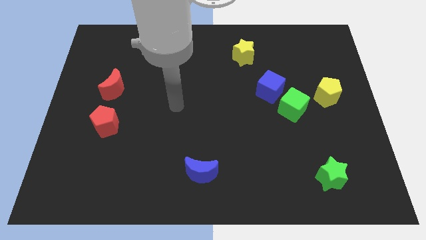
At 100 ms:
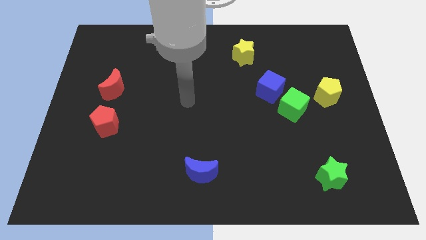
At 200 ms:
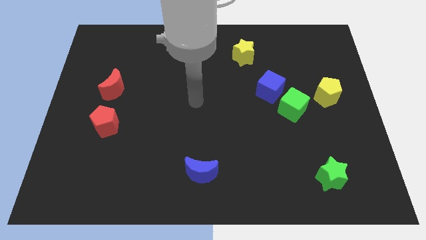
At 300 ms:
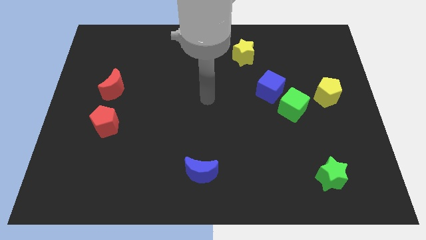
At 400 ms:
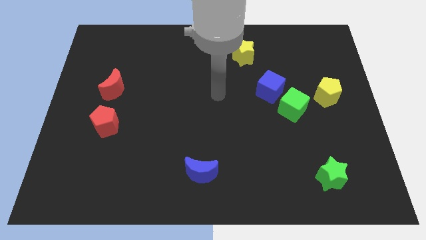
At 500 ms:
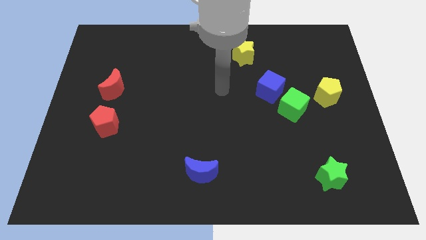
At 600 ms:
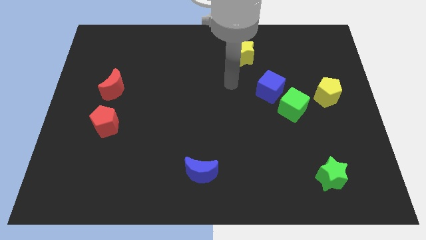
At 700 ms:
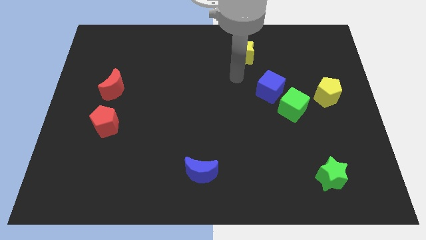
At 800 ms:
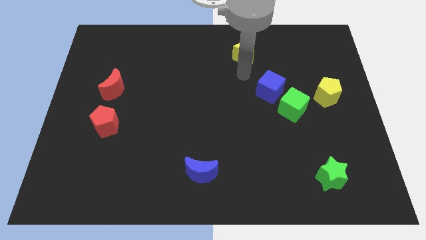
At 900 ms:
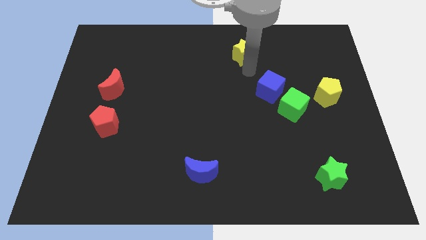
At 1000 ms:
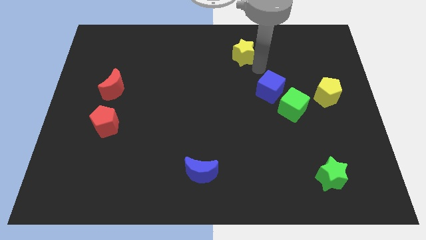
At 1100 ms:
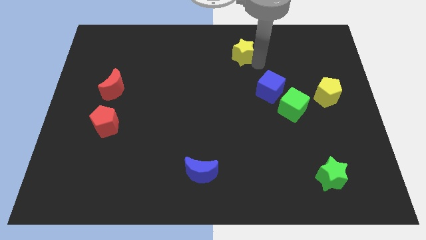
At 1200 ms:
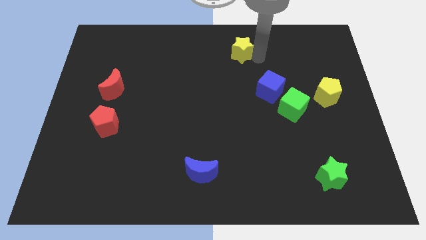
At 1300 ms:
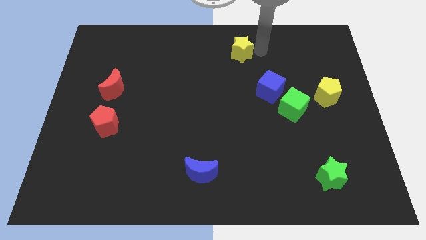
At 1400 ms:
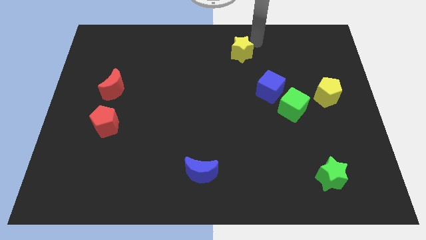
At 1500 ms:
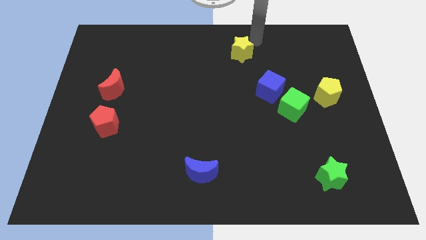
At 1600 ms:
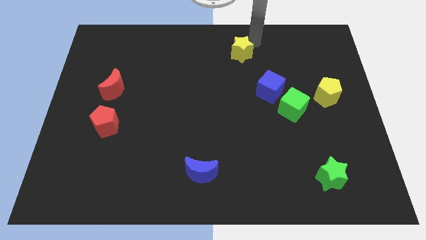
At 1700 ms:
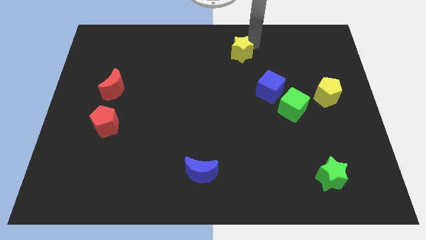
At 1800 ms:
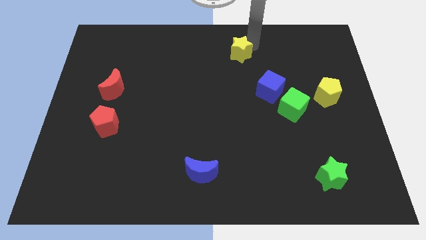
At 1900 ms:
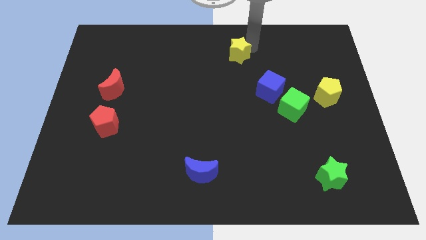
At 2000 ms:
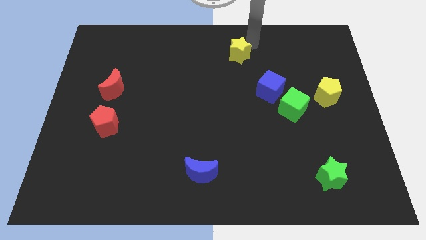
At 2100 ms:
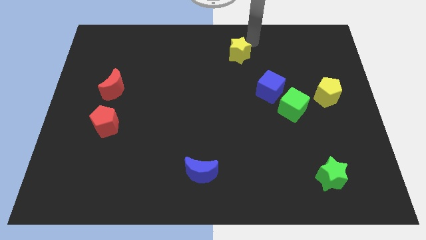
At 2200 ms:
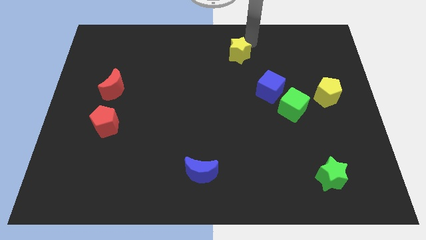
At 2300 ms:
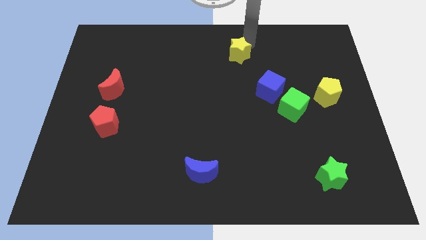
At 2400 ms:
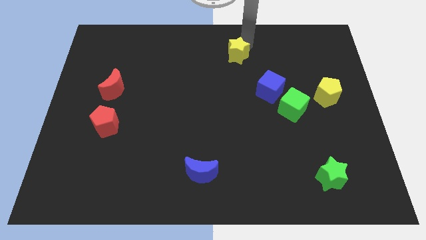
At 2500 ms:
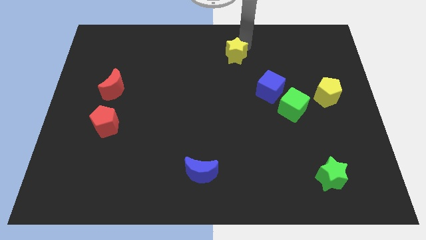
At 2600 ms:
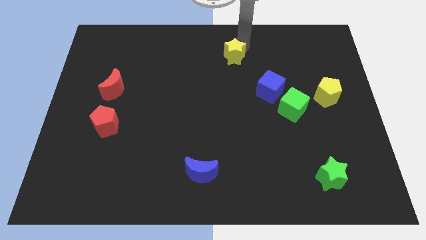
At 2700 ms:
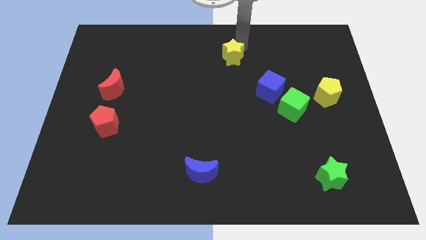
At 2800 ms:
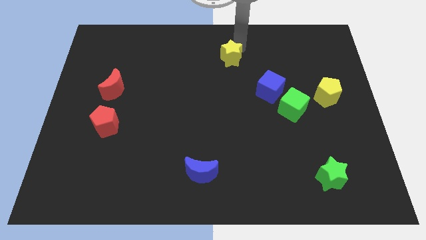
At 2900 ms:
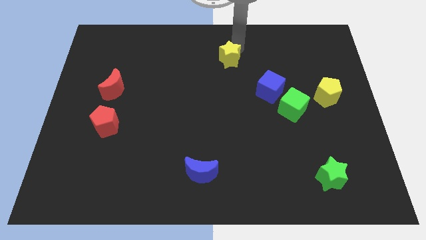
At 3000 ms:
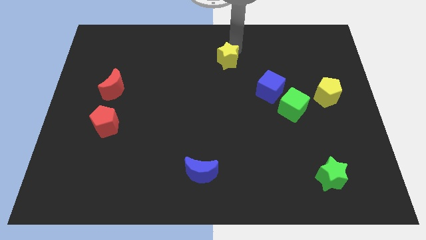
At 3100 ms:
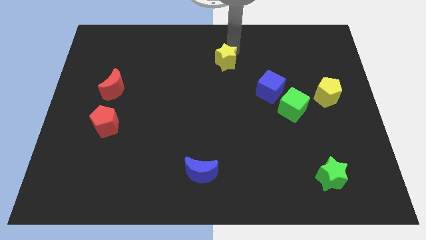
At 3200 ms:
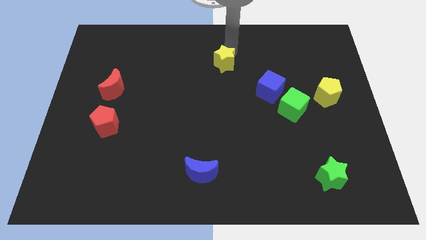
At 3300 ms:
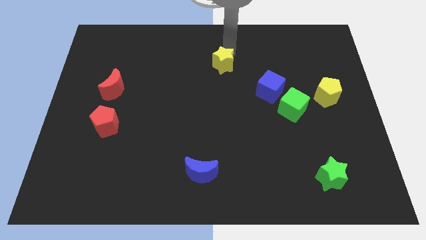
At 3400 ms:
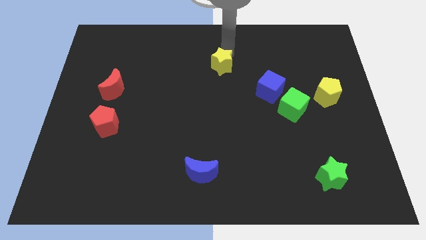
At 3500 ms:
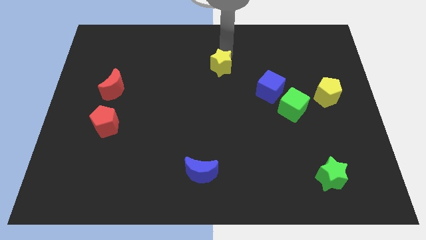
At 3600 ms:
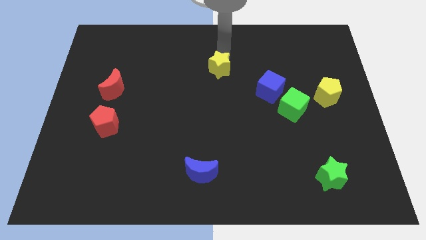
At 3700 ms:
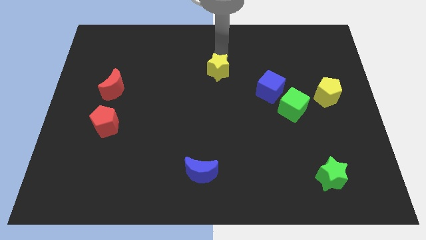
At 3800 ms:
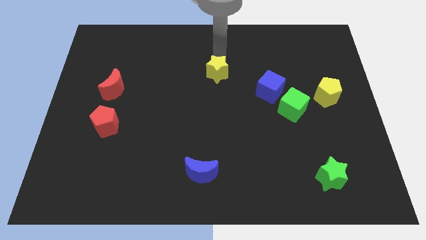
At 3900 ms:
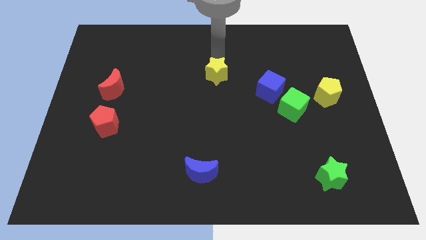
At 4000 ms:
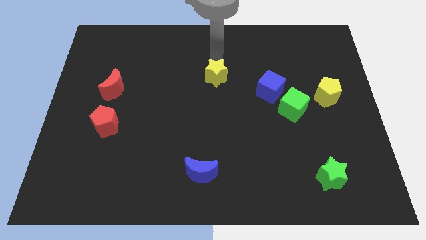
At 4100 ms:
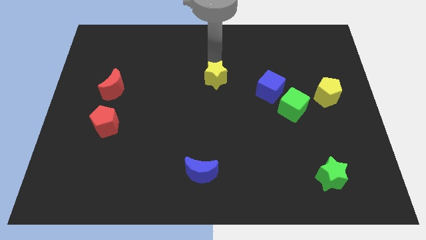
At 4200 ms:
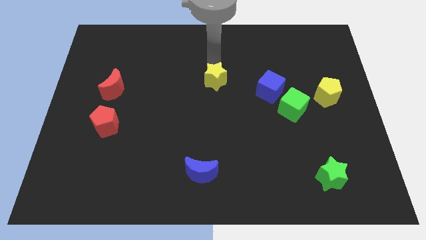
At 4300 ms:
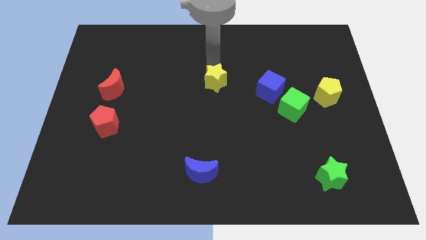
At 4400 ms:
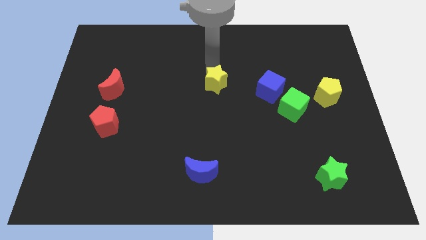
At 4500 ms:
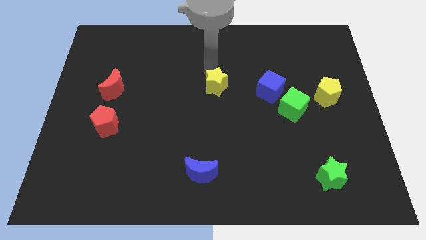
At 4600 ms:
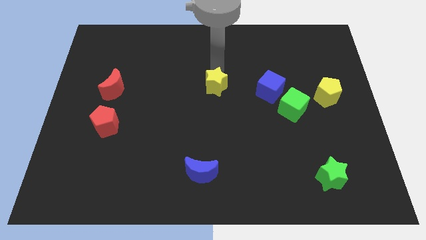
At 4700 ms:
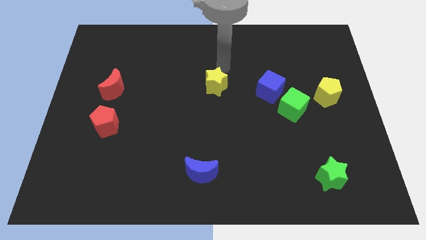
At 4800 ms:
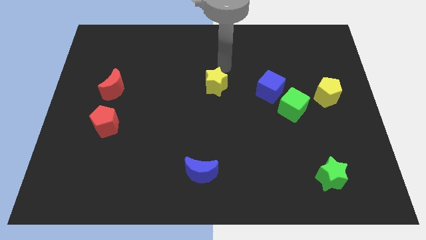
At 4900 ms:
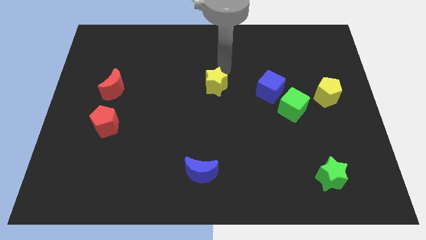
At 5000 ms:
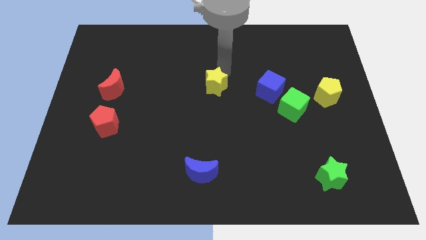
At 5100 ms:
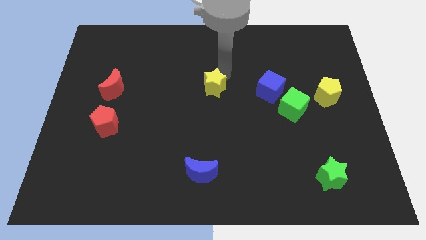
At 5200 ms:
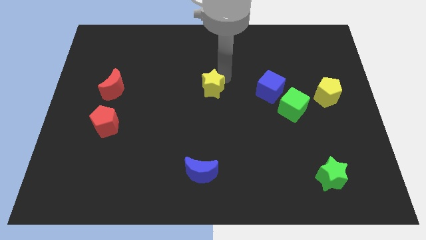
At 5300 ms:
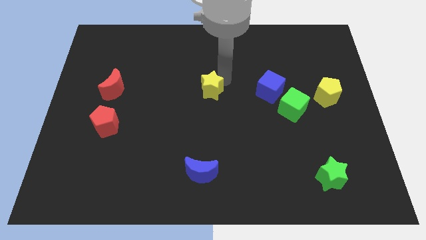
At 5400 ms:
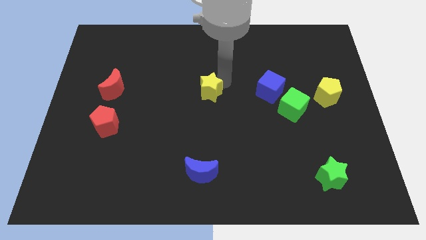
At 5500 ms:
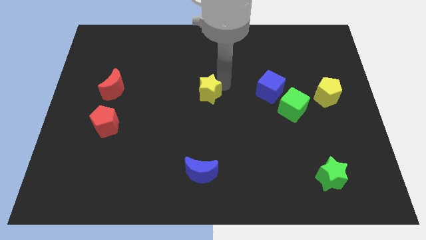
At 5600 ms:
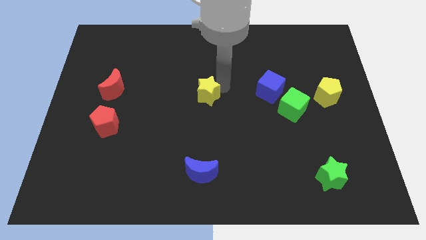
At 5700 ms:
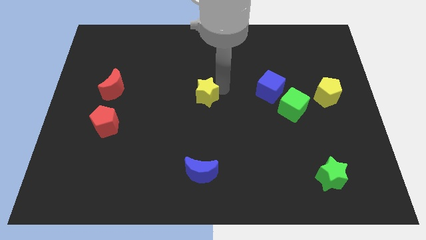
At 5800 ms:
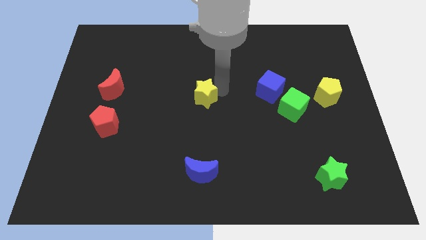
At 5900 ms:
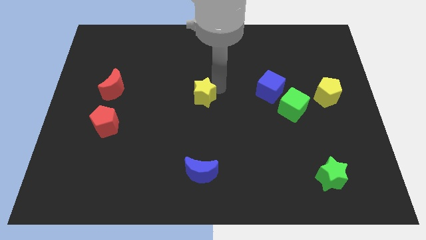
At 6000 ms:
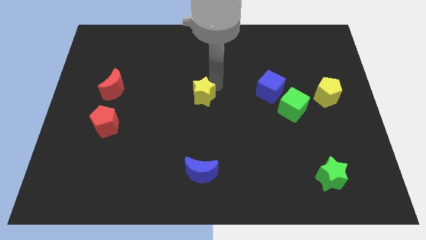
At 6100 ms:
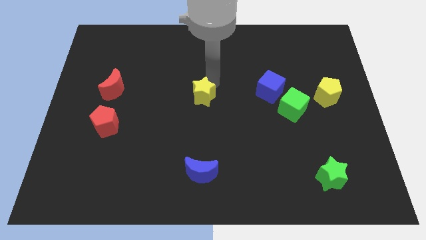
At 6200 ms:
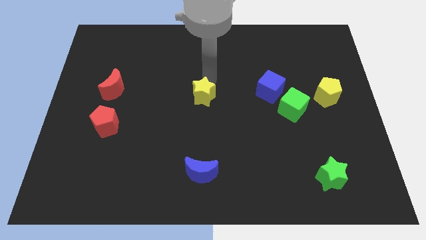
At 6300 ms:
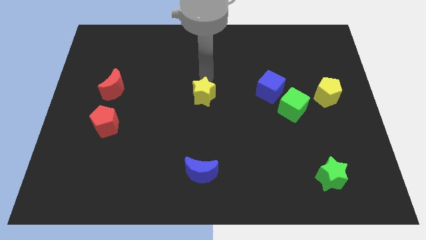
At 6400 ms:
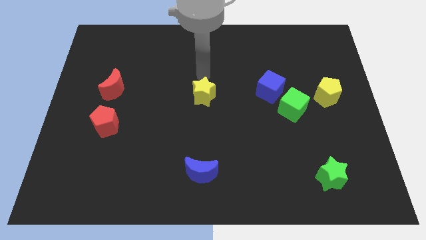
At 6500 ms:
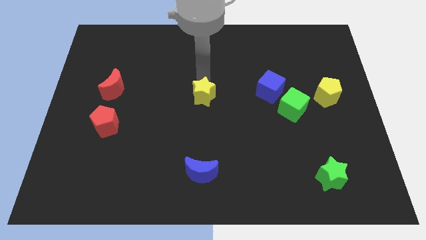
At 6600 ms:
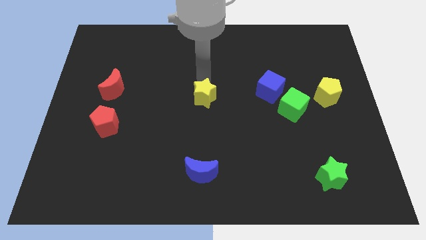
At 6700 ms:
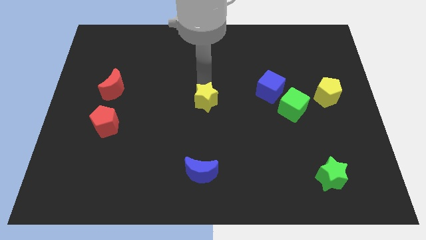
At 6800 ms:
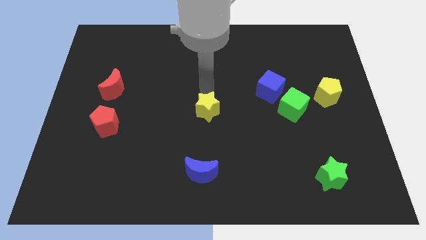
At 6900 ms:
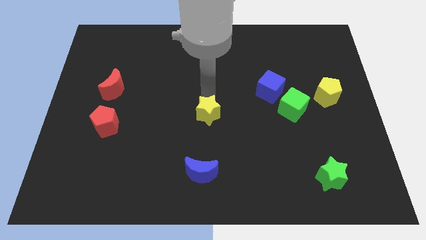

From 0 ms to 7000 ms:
push the yellow star to the top side of the blue moon
